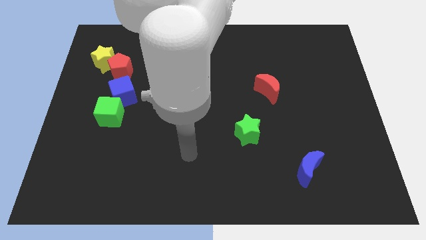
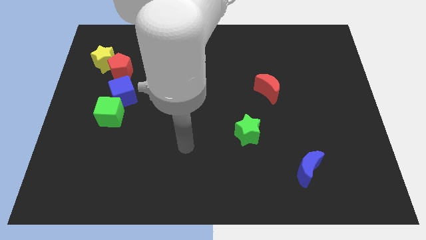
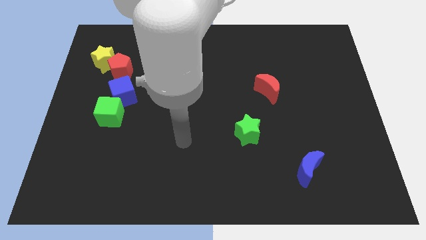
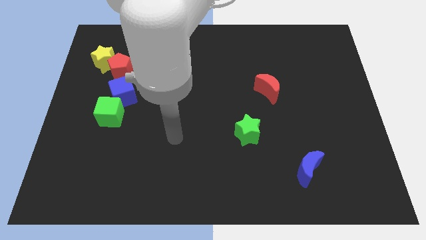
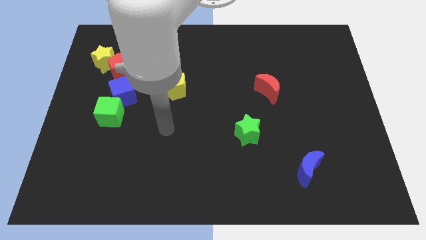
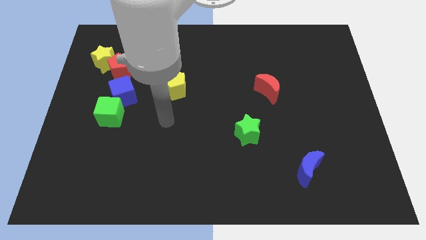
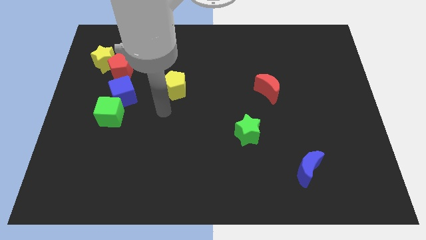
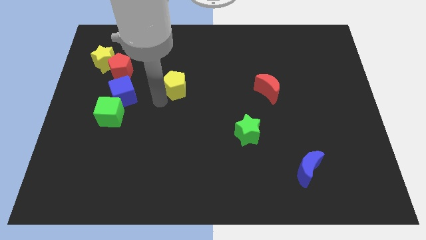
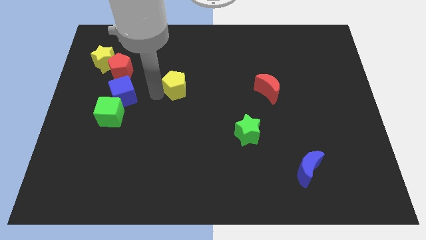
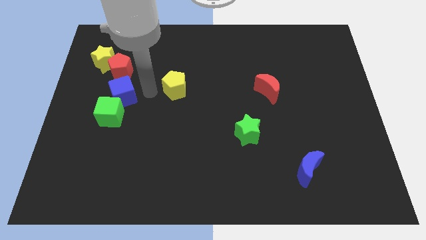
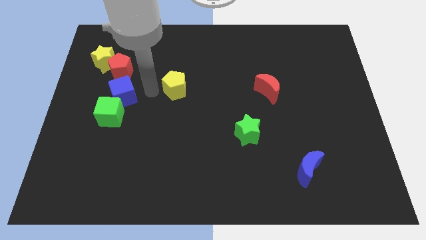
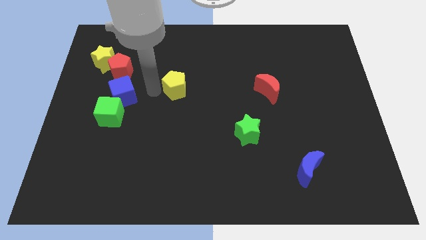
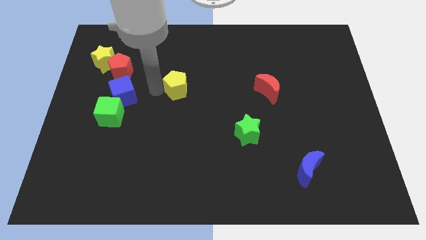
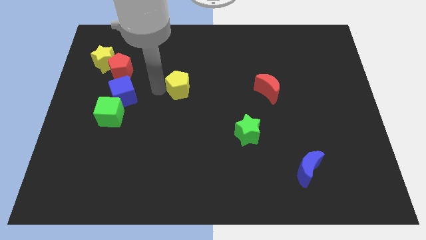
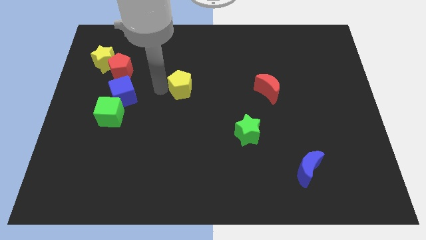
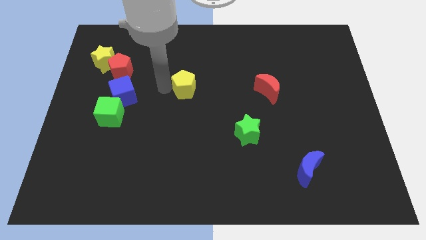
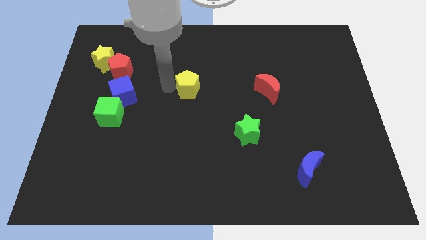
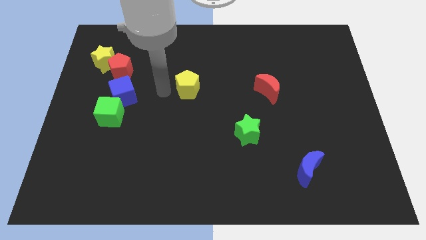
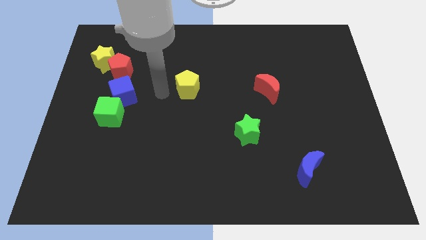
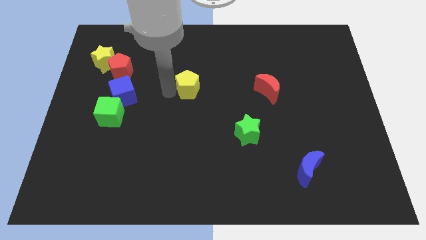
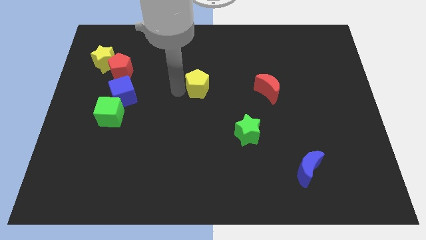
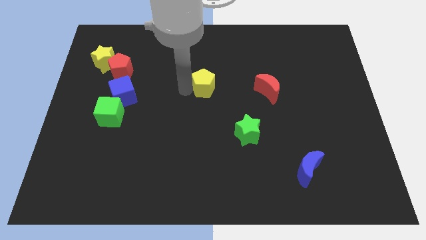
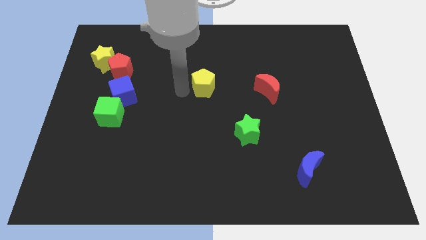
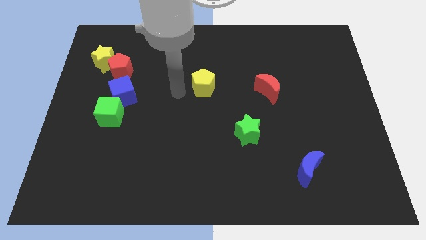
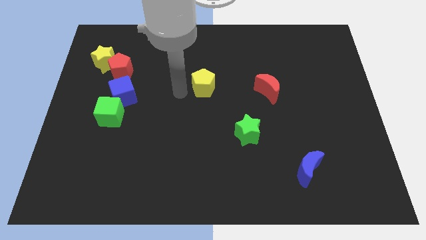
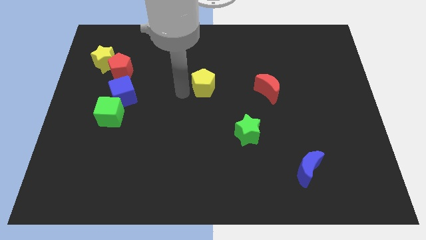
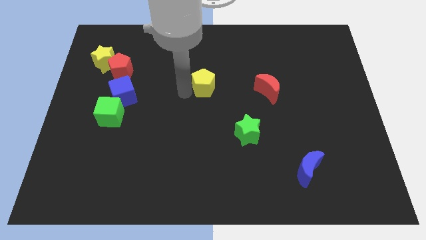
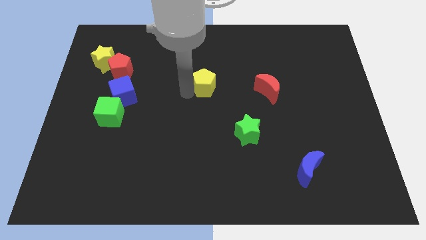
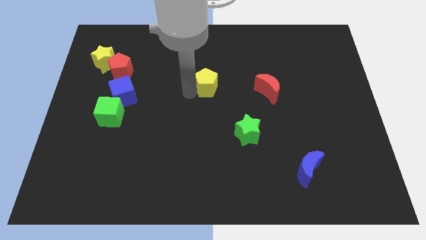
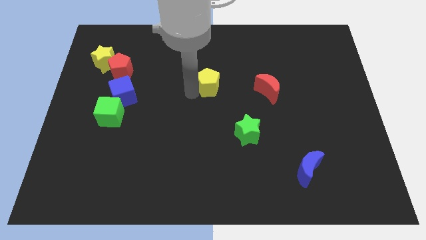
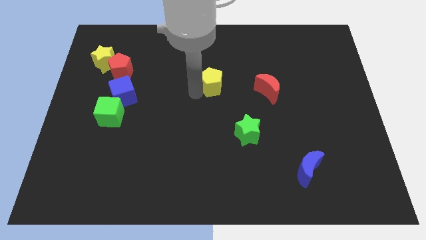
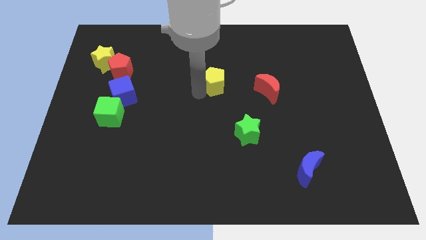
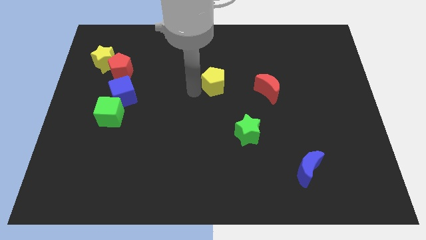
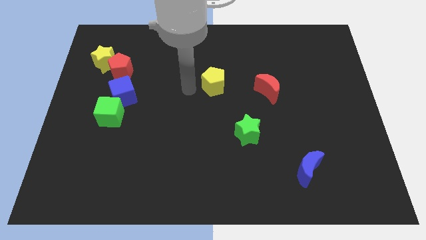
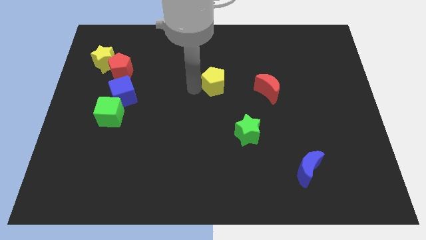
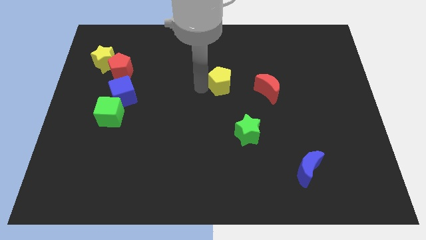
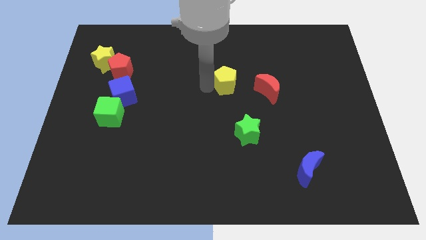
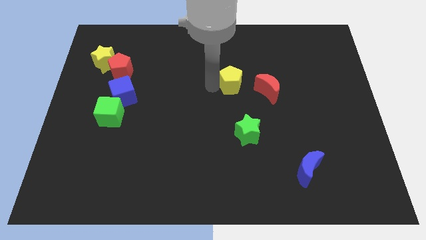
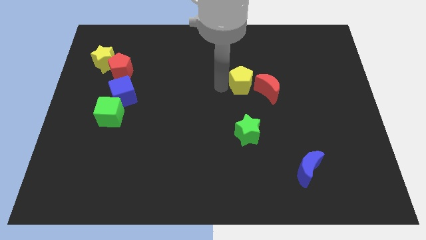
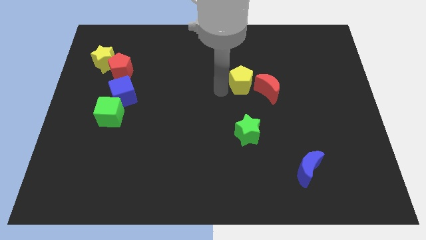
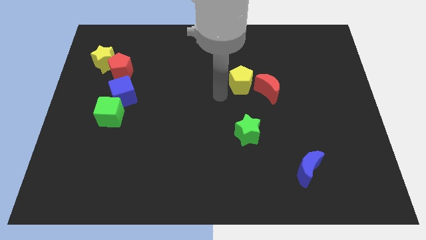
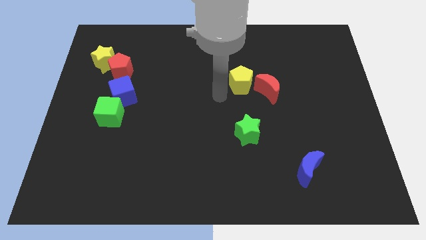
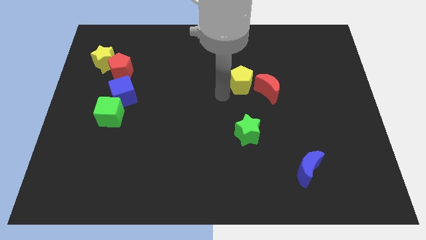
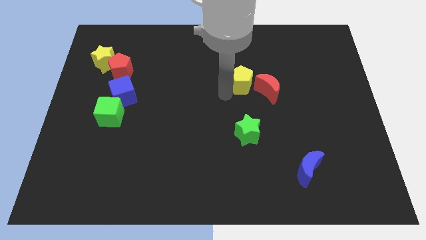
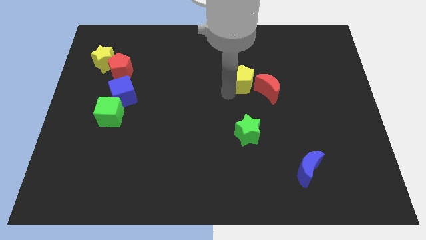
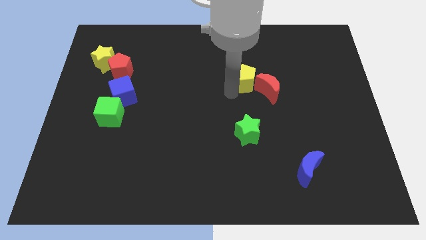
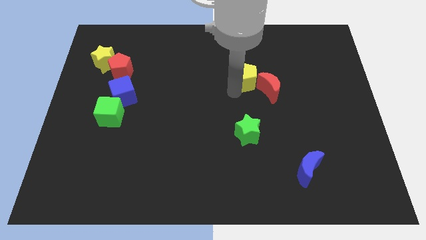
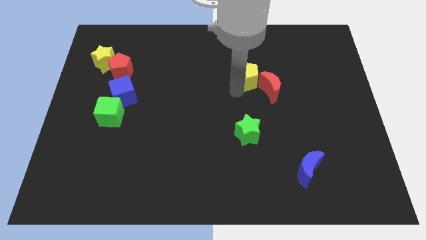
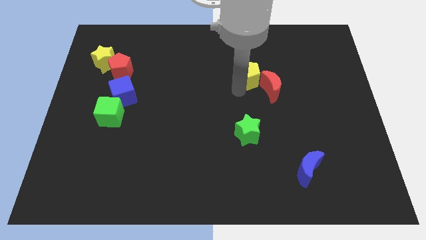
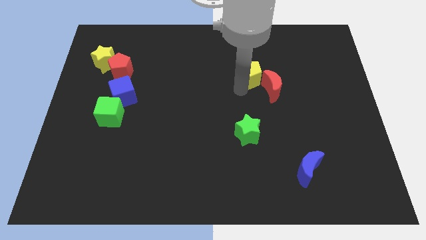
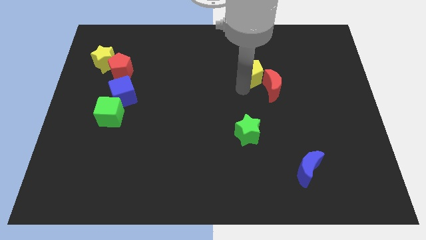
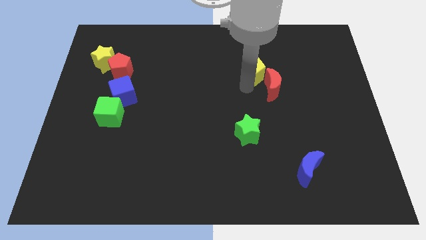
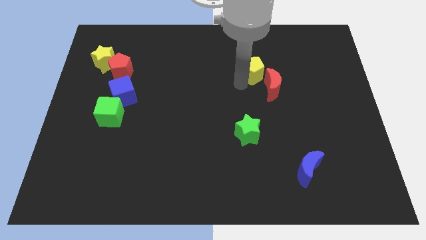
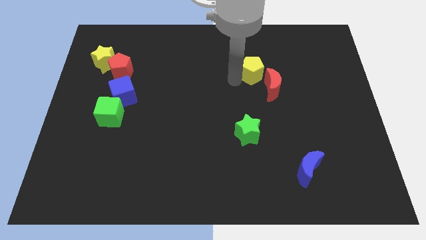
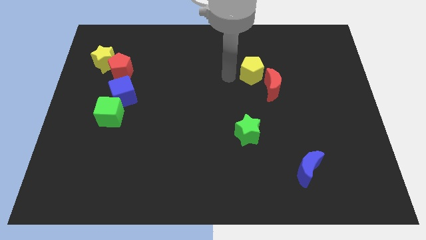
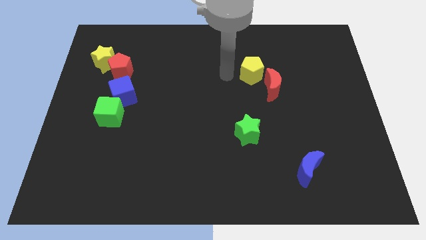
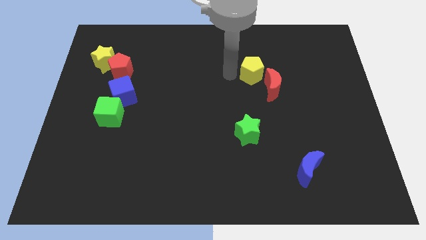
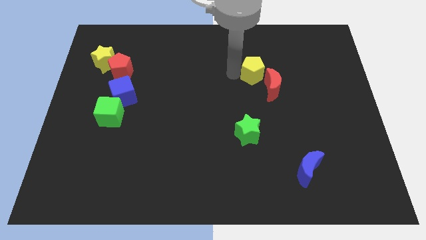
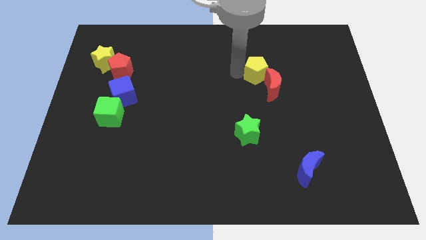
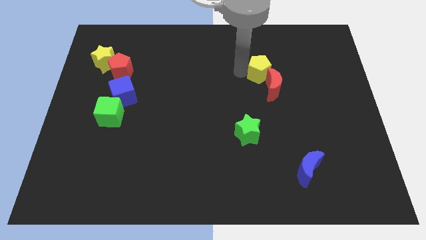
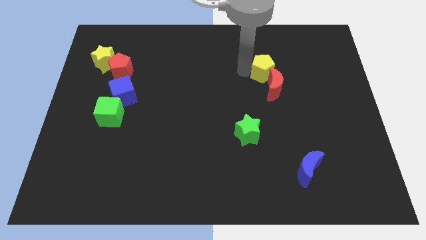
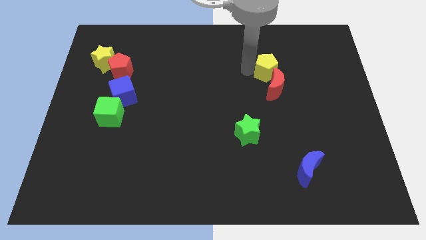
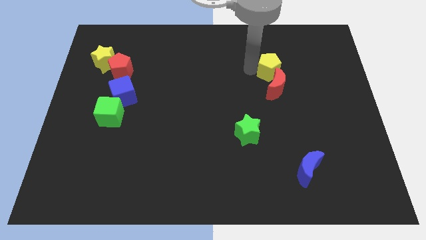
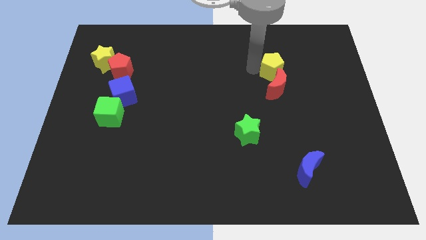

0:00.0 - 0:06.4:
slide the yellow pentagon to the top right of the red moon

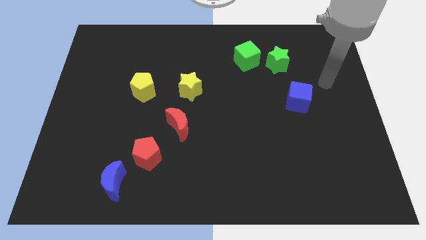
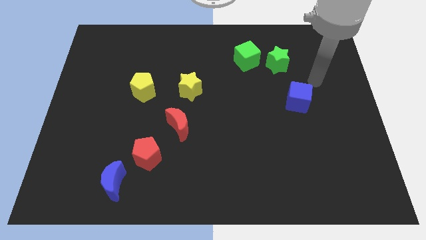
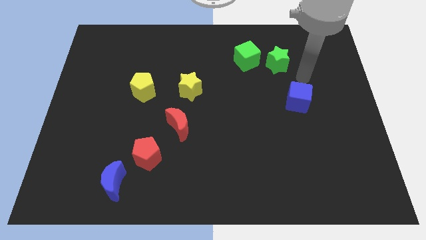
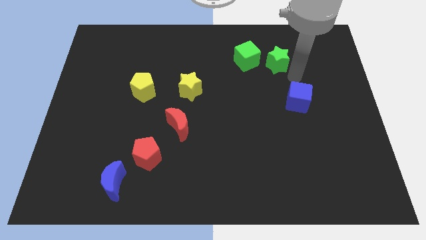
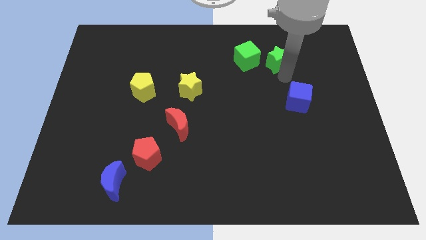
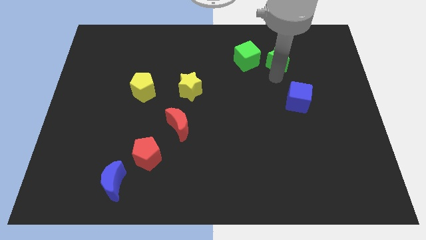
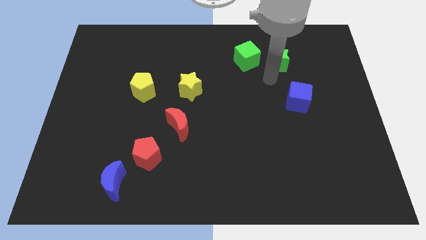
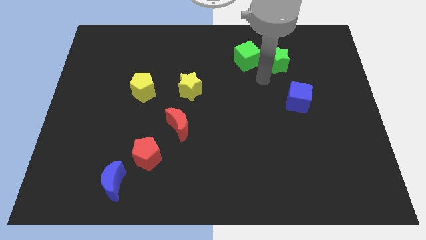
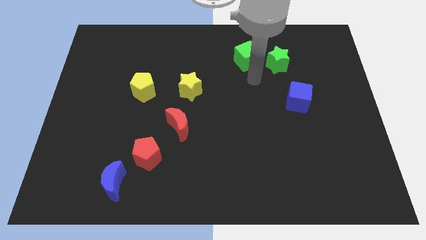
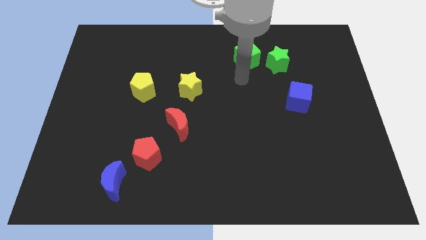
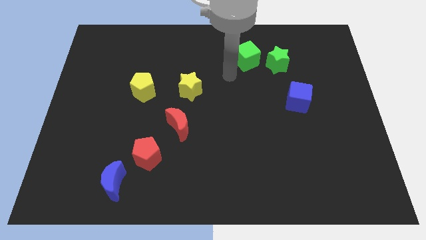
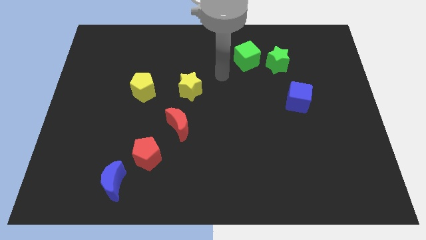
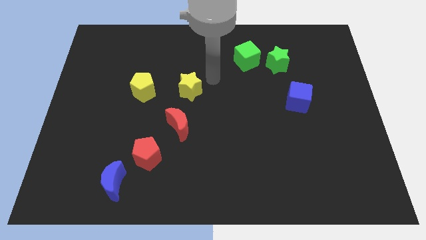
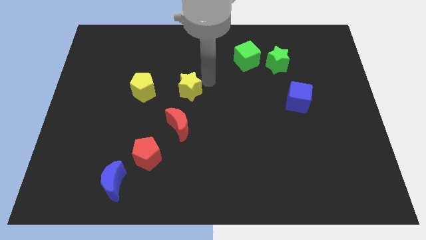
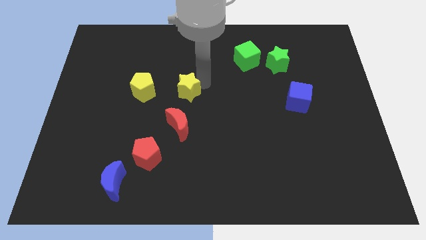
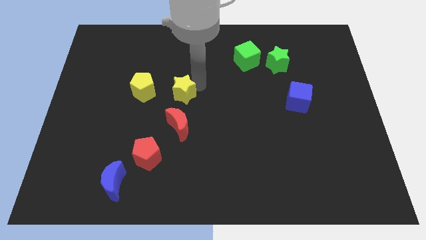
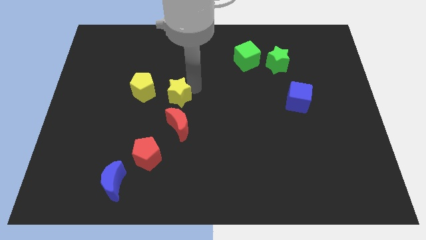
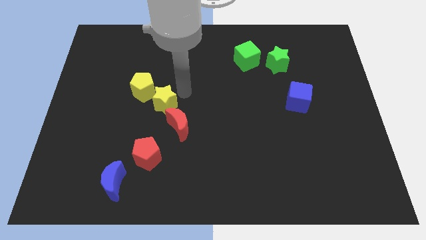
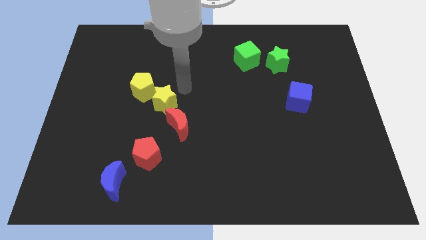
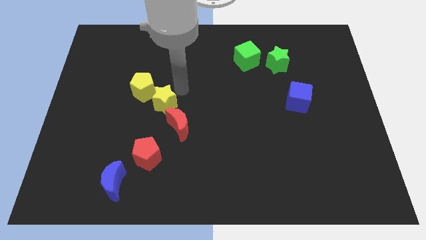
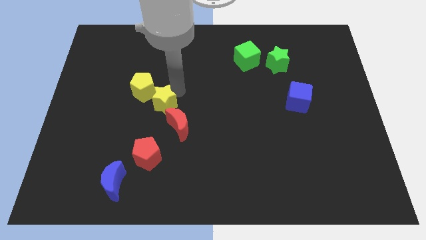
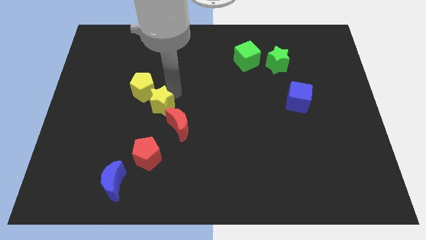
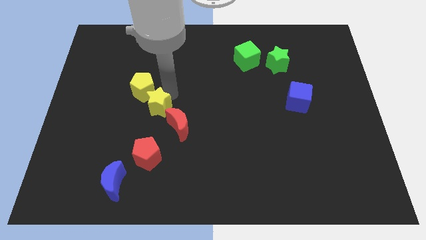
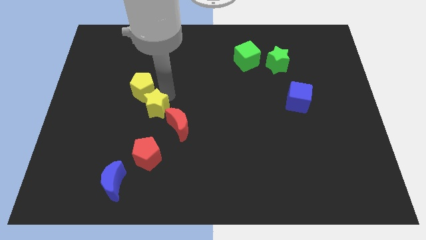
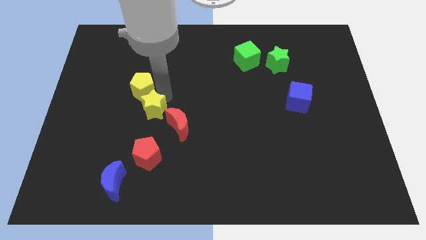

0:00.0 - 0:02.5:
slide the yellow star to the left side of the red moon
